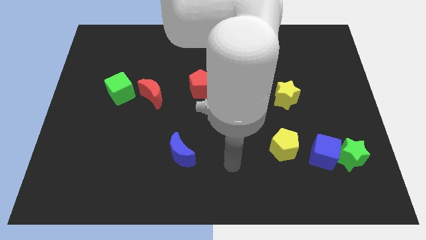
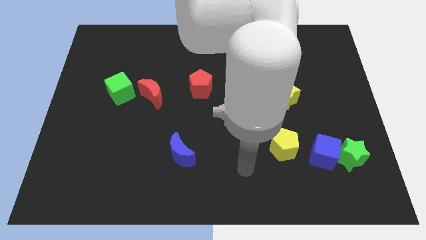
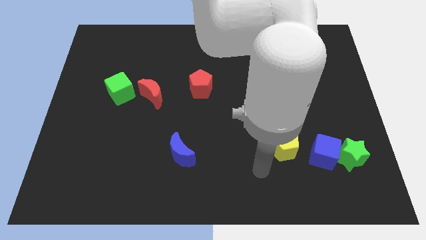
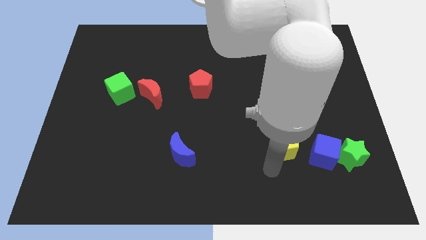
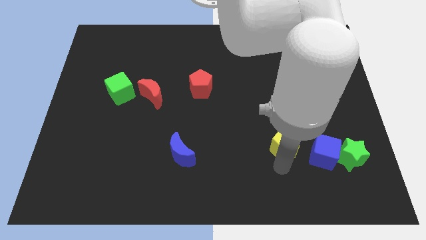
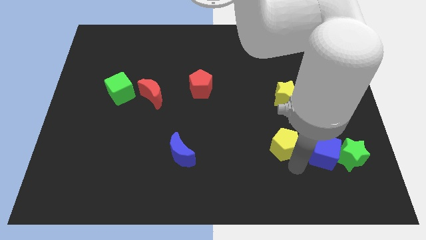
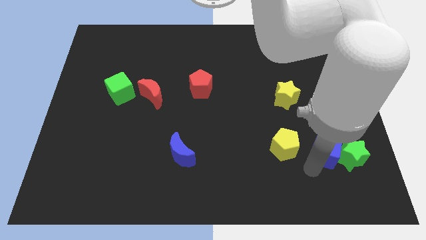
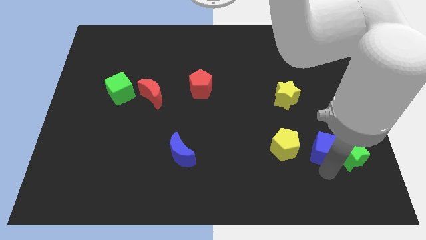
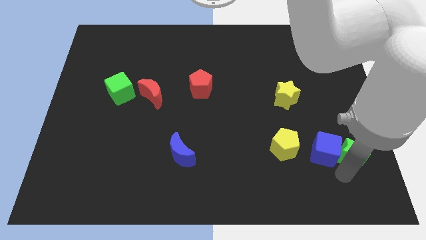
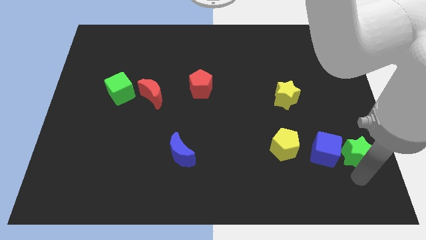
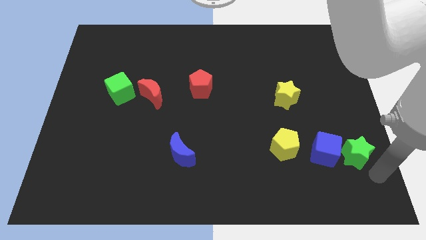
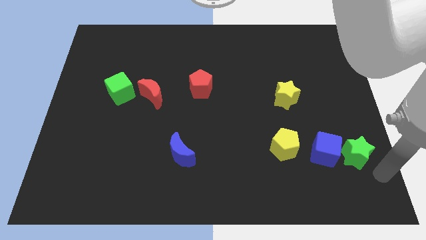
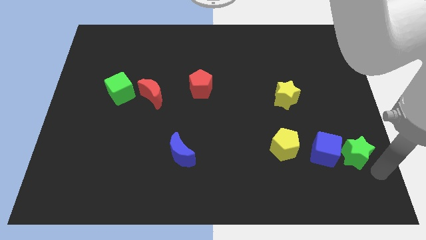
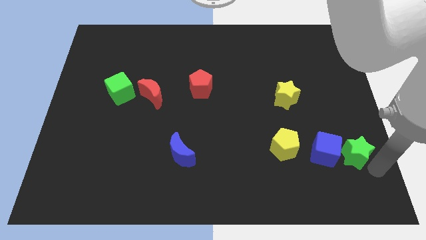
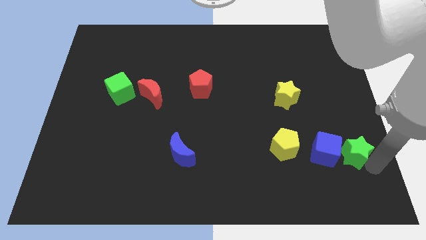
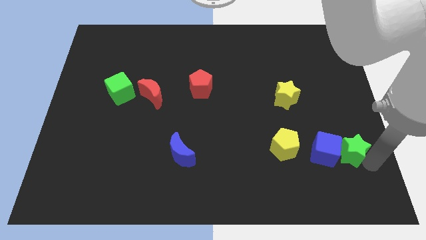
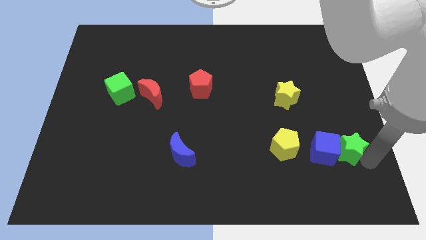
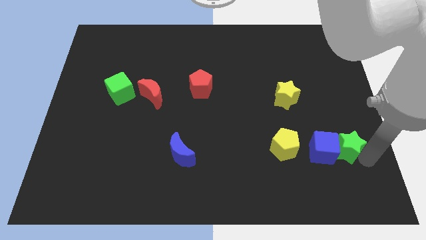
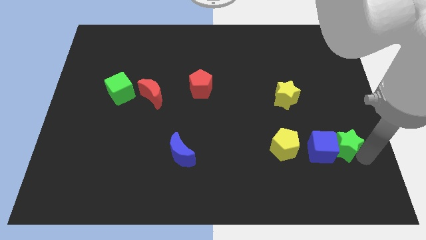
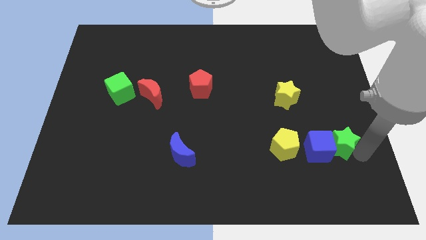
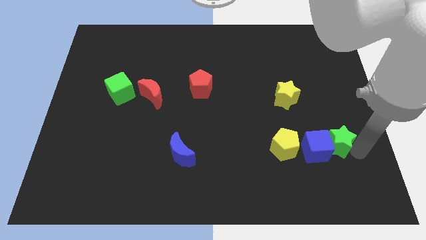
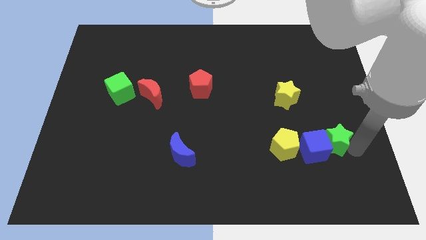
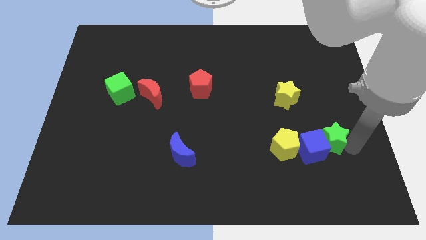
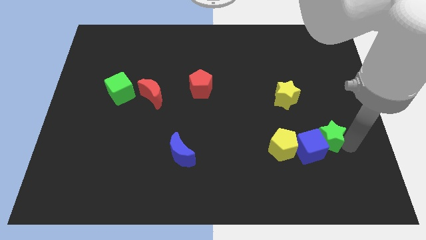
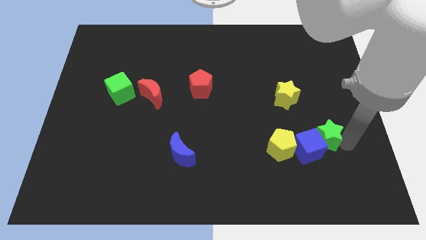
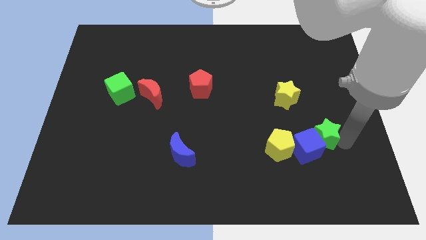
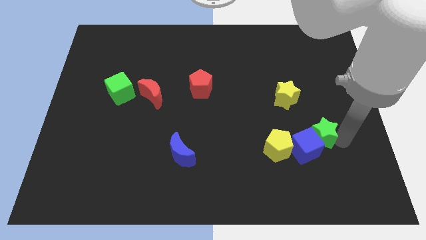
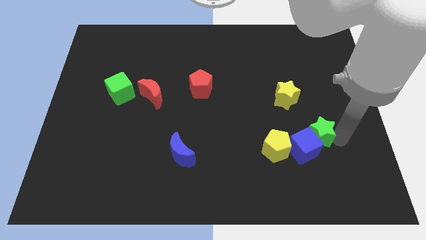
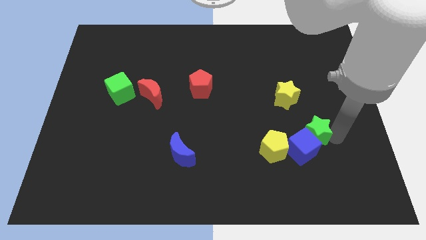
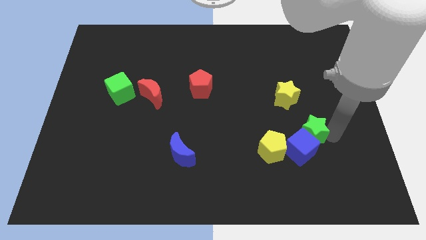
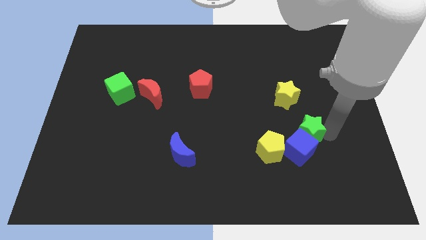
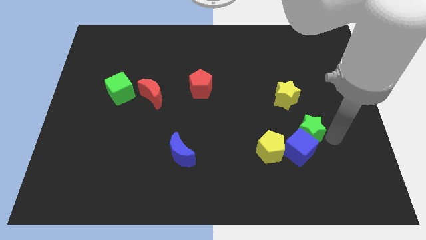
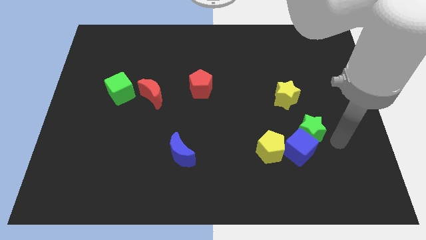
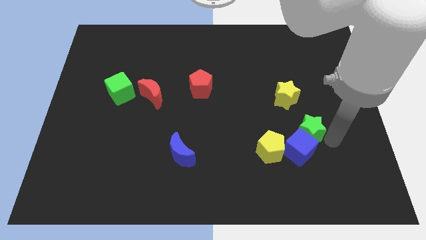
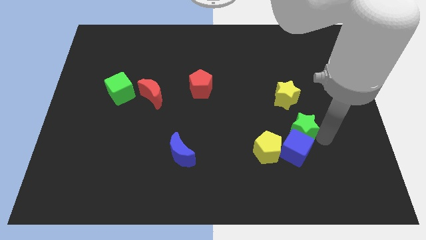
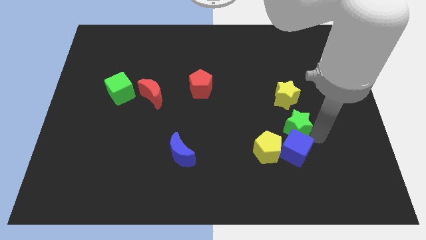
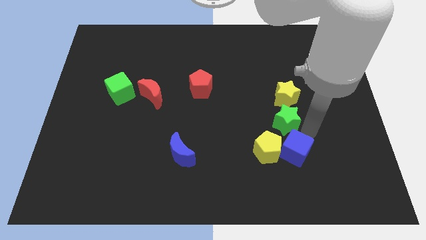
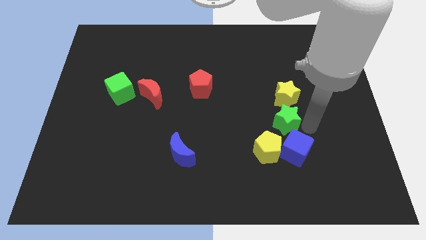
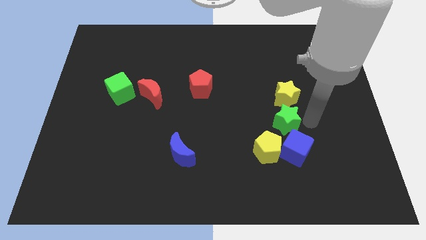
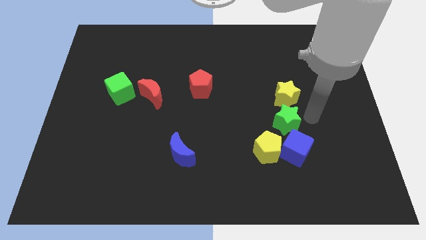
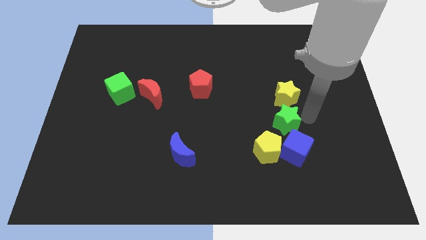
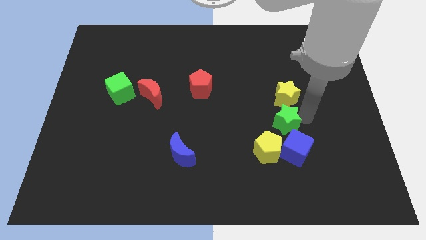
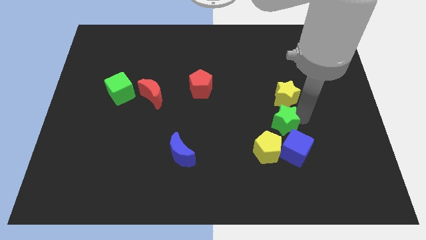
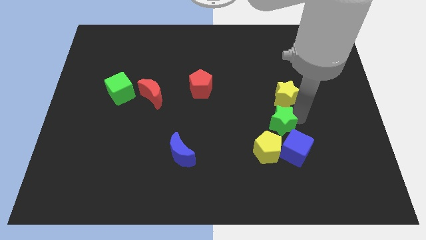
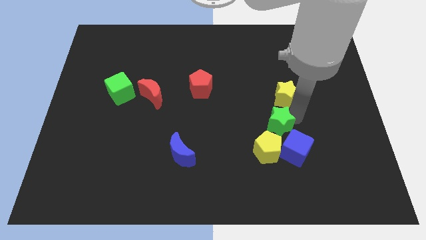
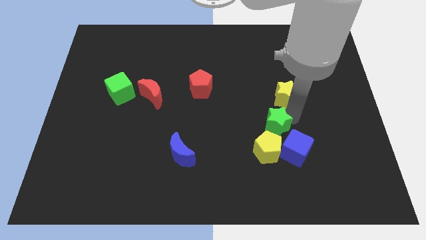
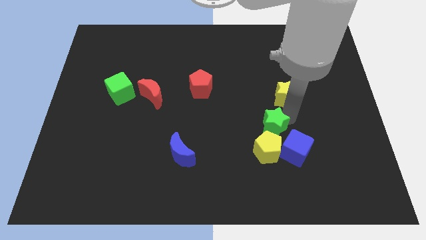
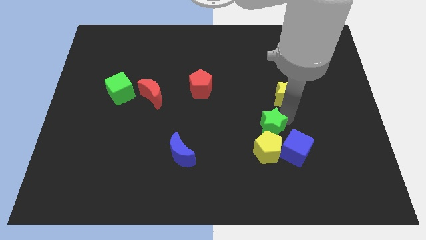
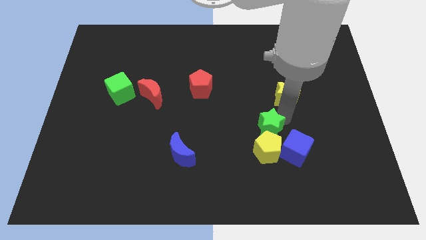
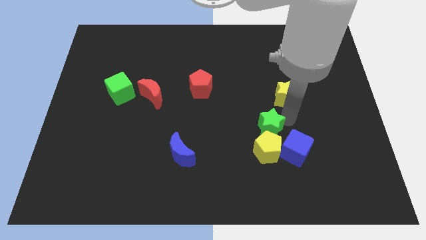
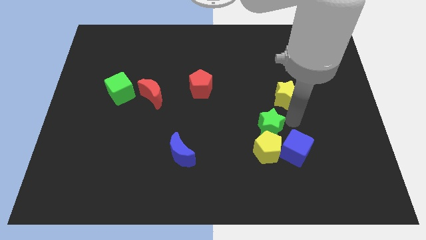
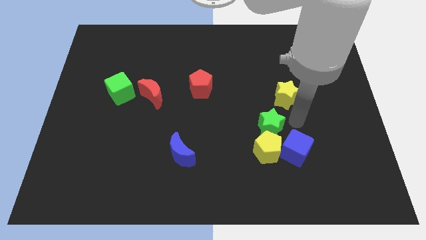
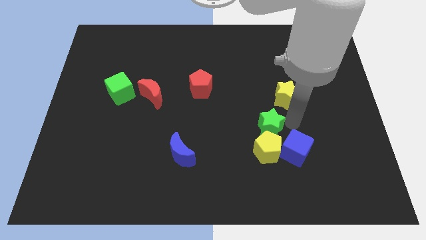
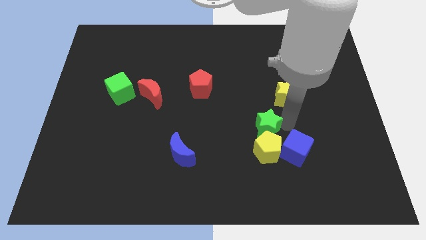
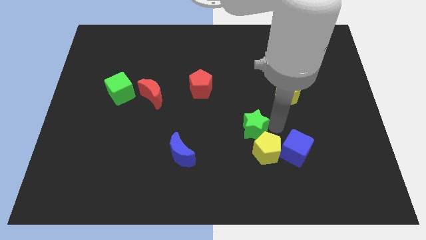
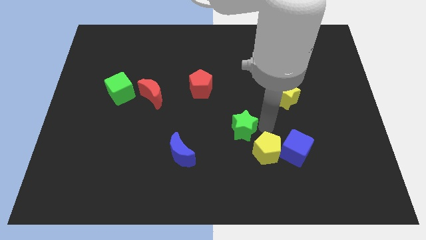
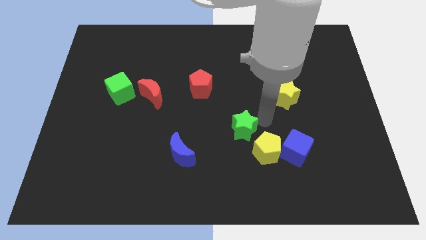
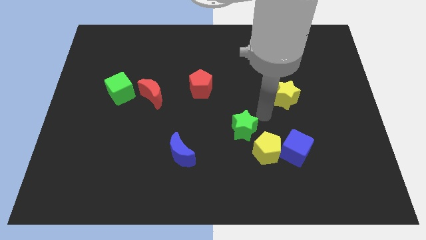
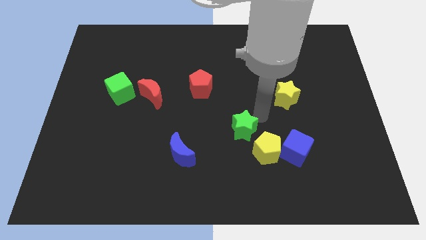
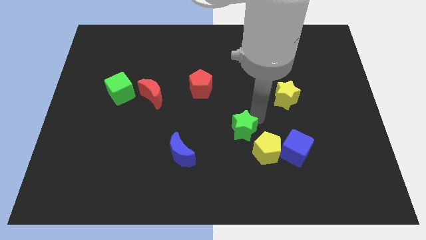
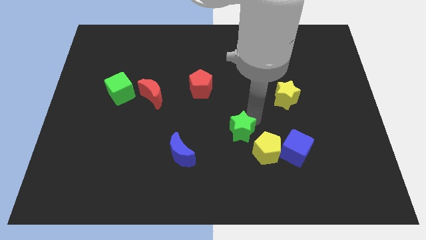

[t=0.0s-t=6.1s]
slide the green star left of the yellow pentagon
